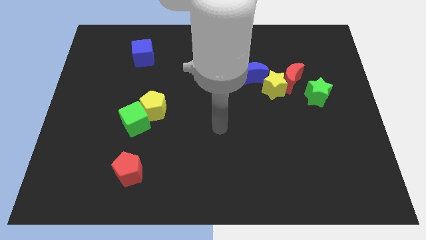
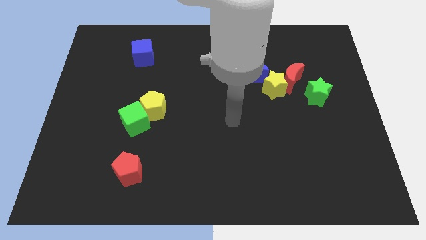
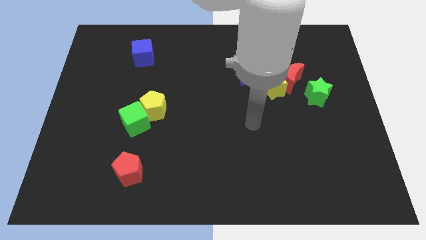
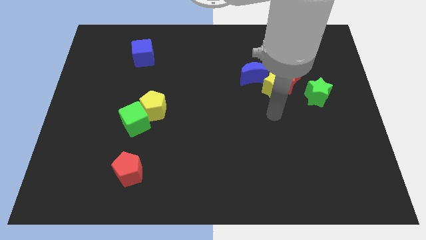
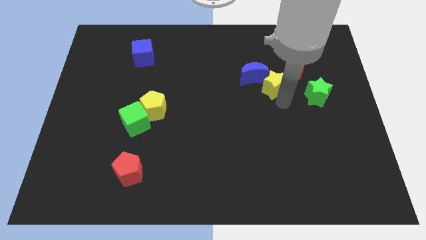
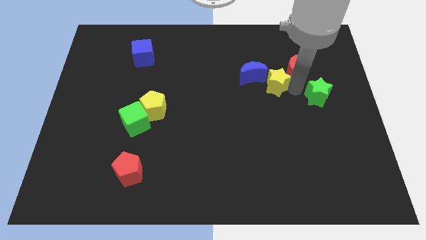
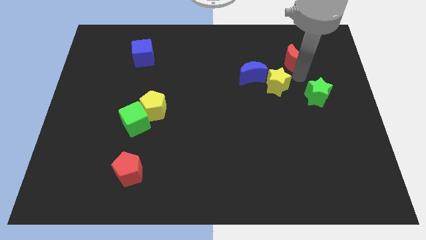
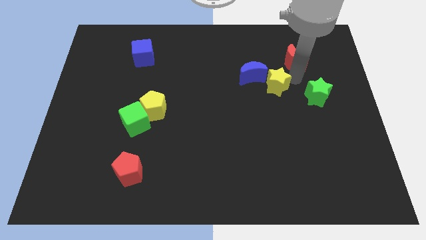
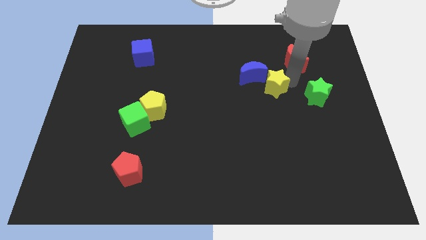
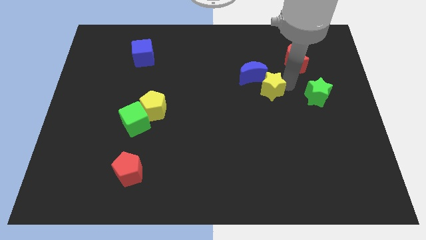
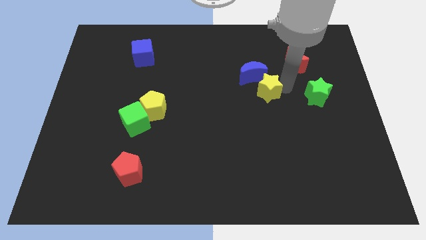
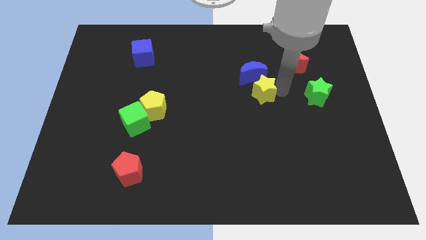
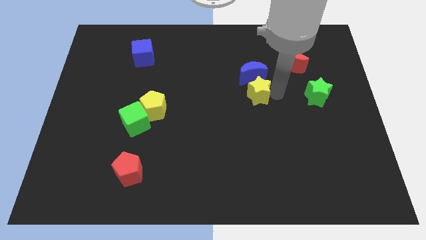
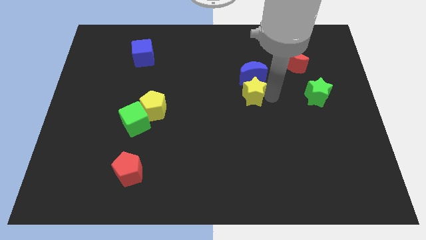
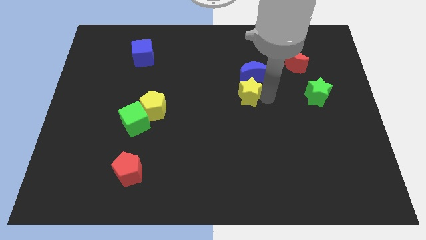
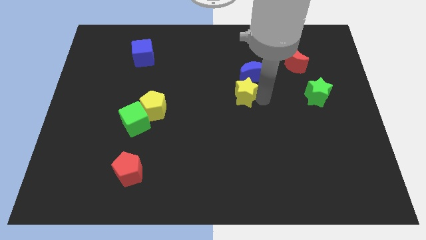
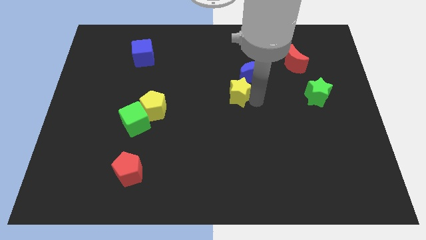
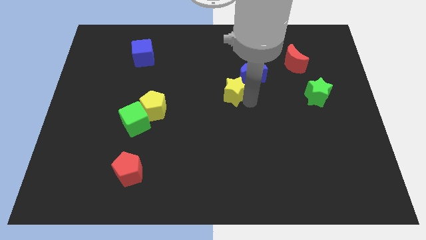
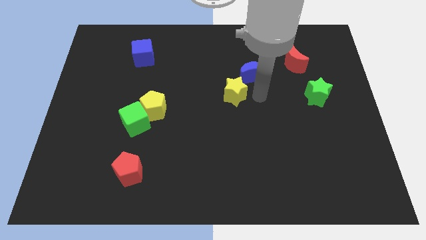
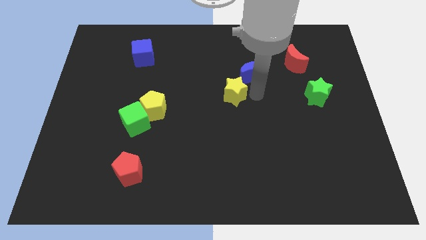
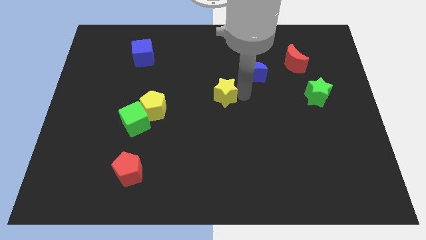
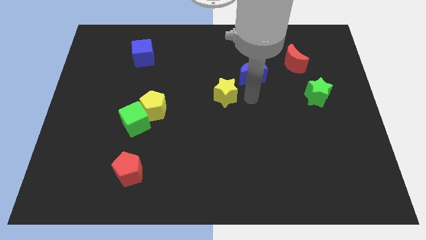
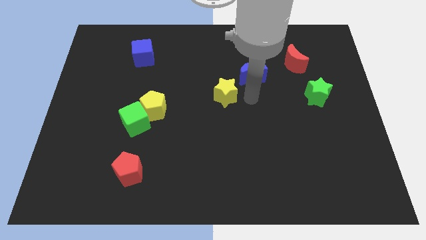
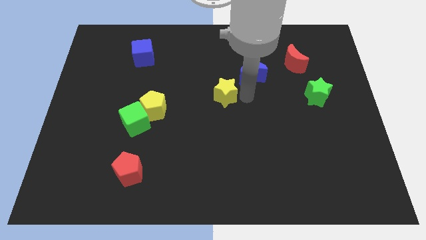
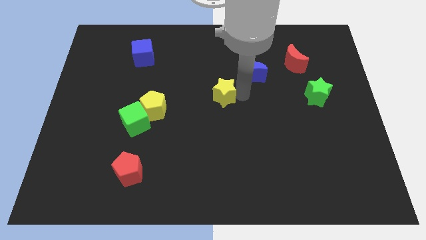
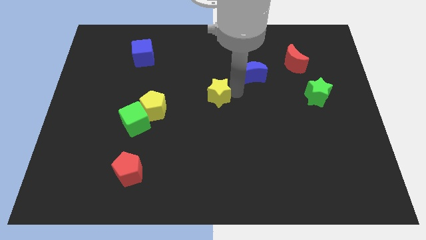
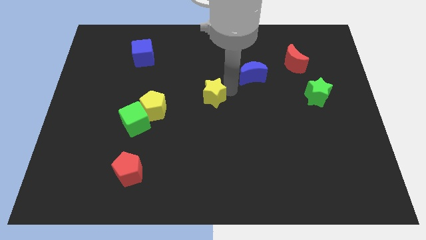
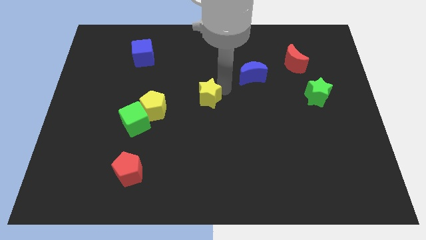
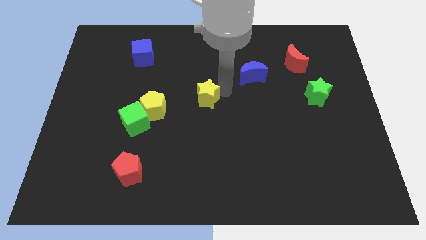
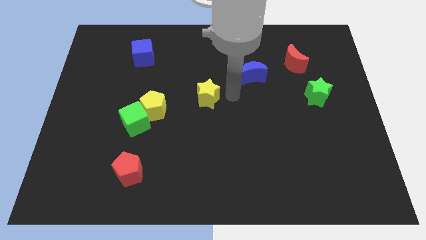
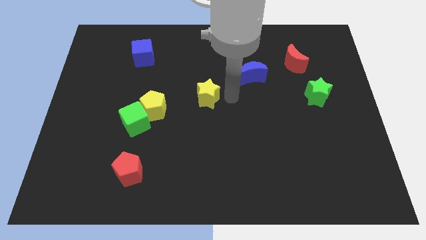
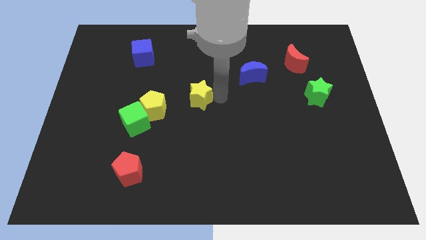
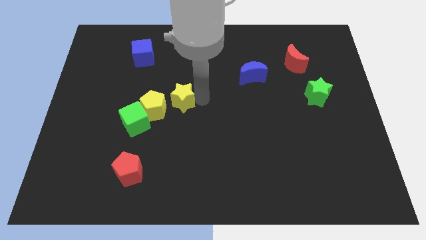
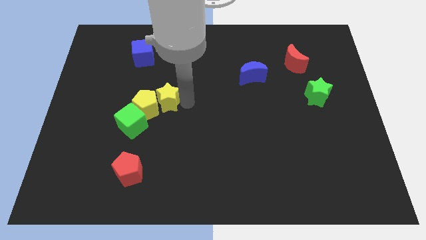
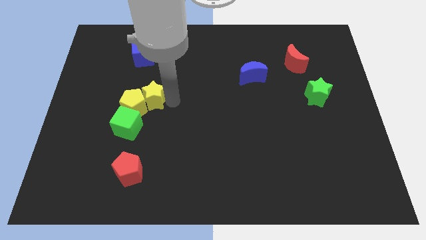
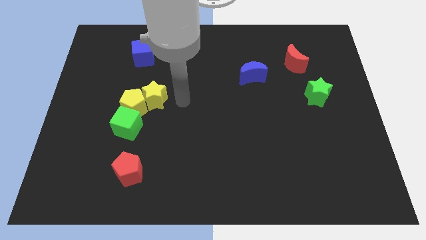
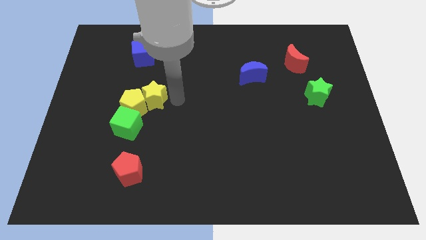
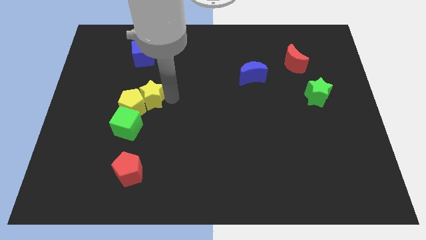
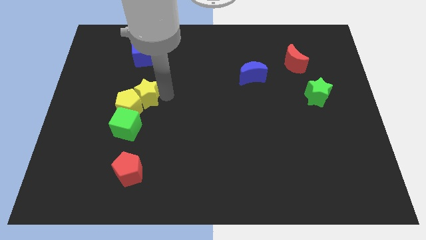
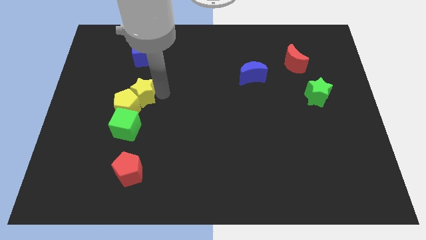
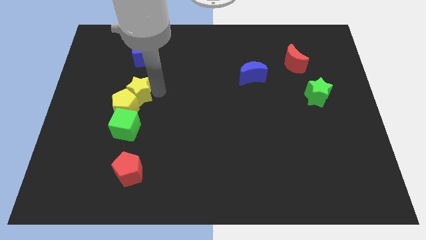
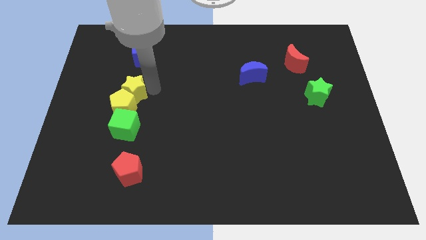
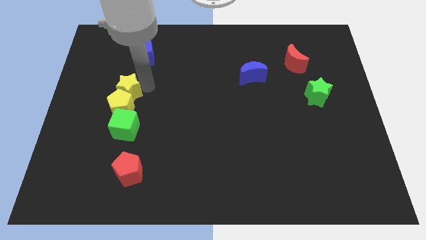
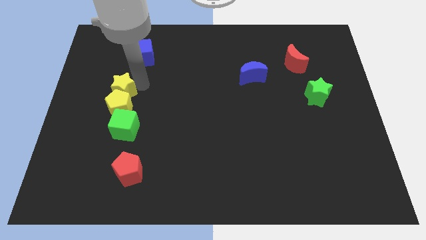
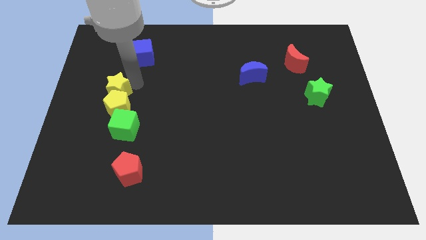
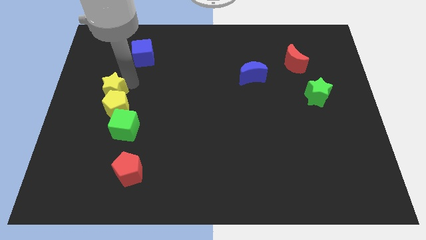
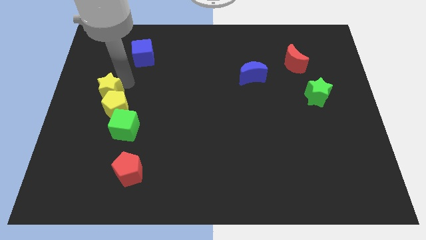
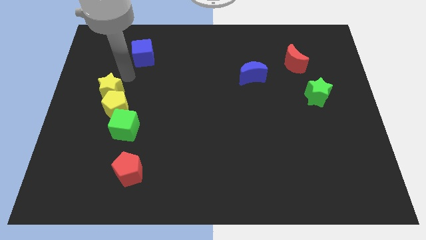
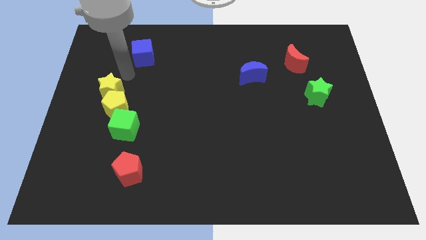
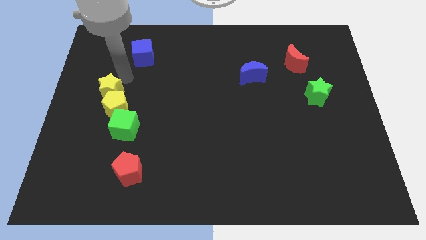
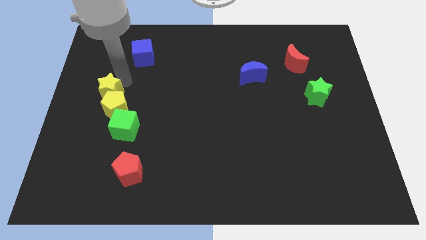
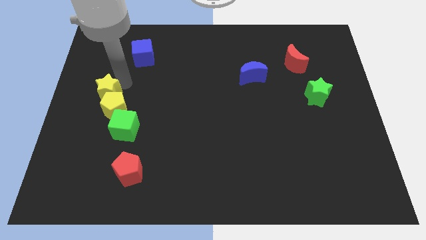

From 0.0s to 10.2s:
push the yellow star to the left side
